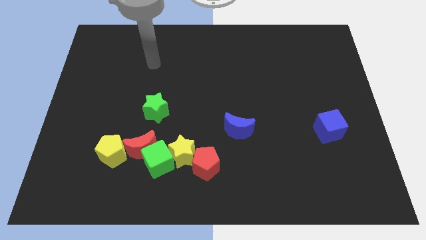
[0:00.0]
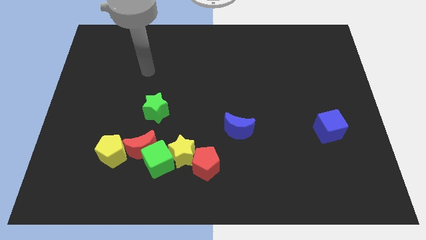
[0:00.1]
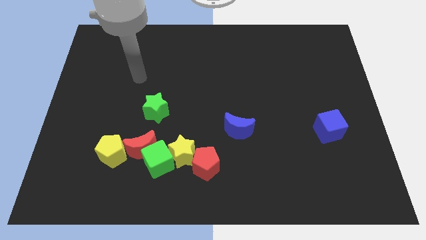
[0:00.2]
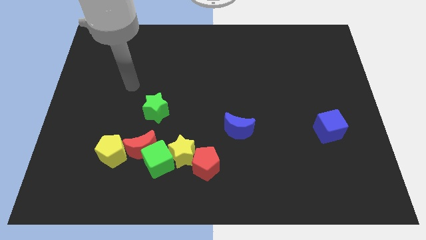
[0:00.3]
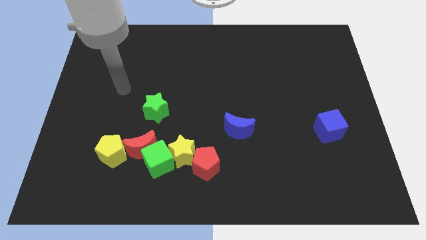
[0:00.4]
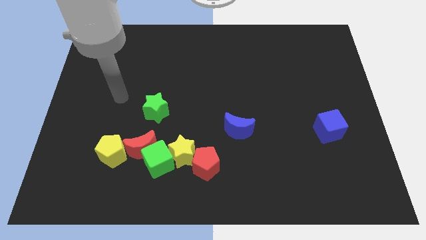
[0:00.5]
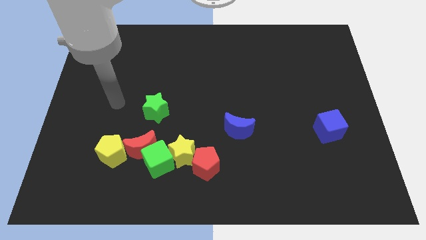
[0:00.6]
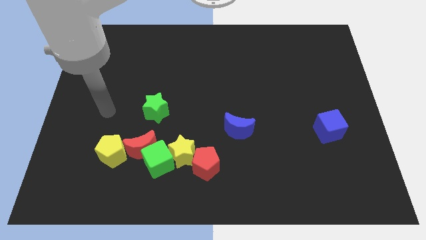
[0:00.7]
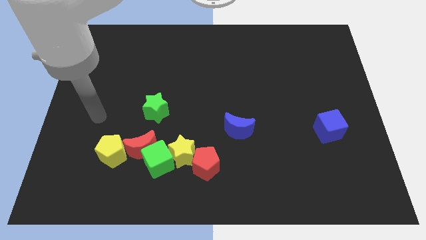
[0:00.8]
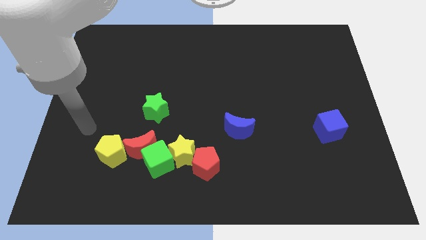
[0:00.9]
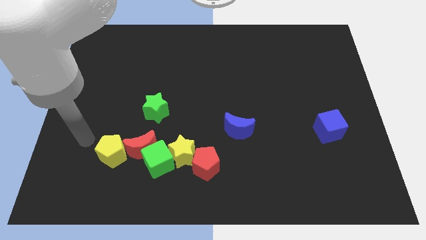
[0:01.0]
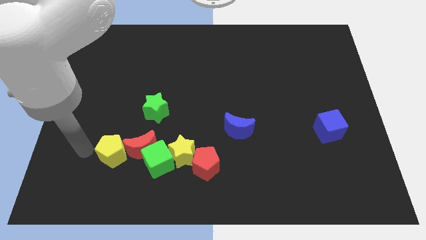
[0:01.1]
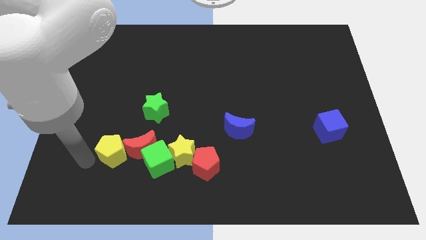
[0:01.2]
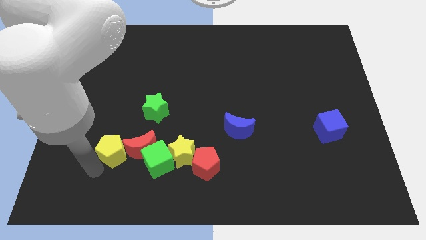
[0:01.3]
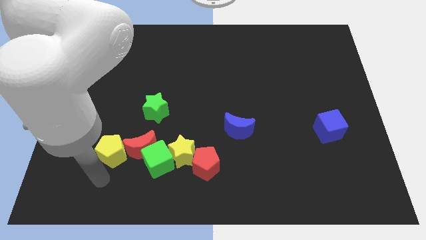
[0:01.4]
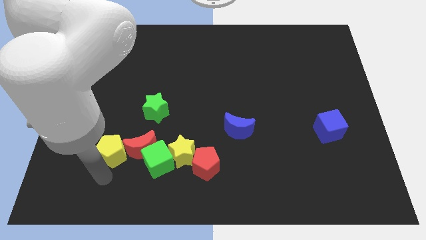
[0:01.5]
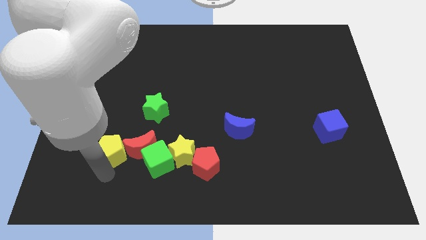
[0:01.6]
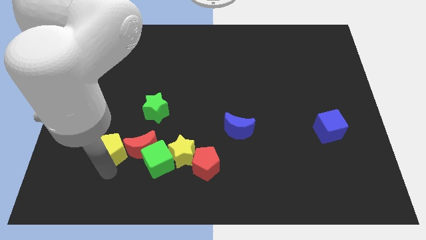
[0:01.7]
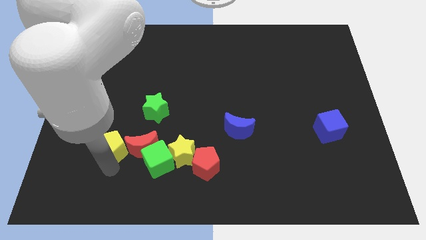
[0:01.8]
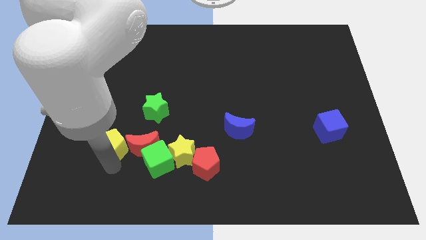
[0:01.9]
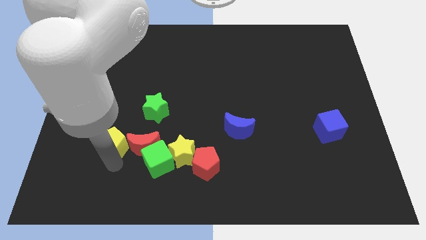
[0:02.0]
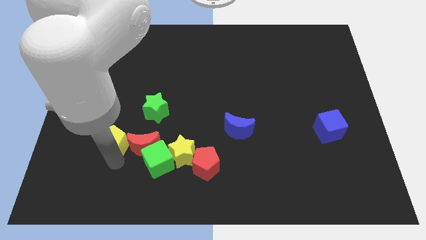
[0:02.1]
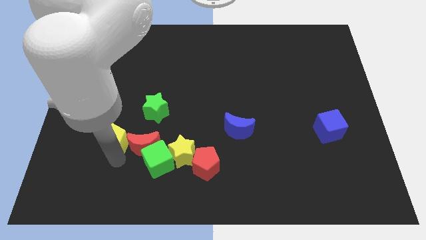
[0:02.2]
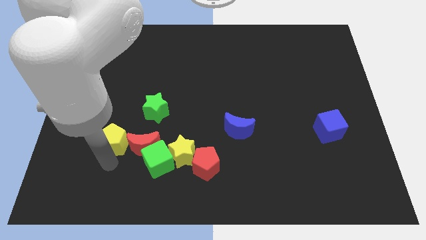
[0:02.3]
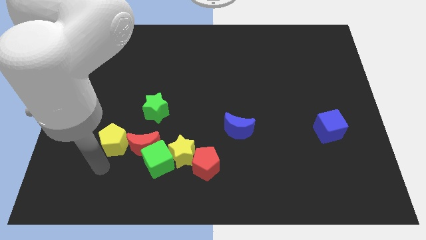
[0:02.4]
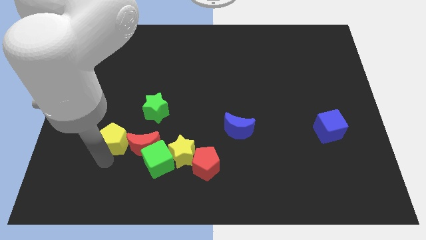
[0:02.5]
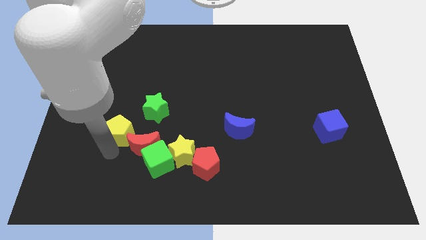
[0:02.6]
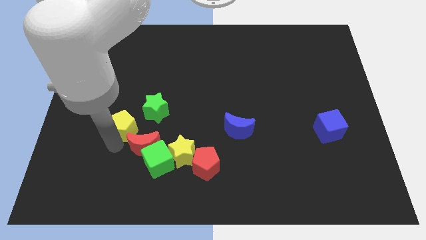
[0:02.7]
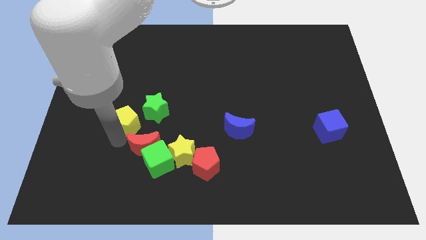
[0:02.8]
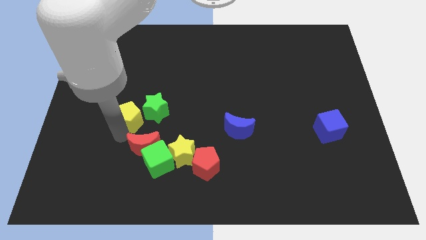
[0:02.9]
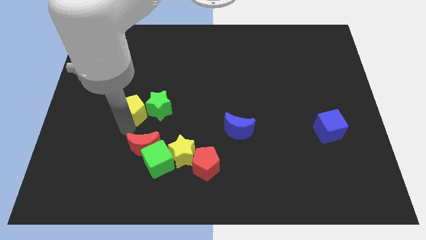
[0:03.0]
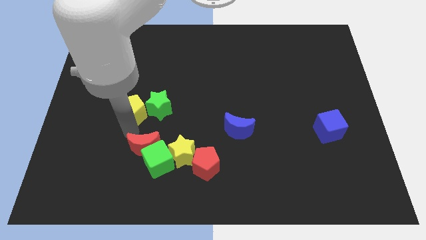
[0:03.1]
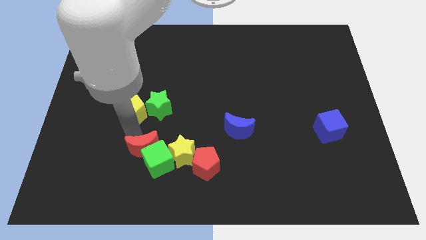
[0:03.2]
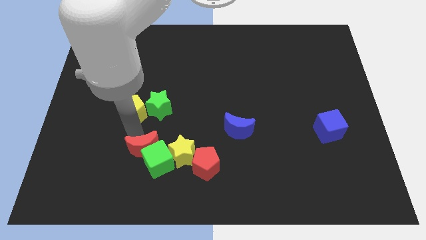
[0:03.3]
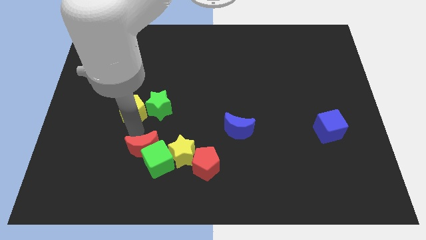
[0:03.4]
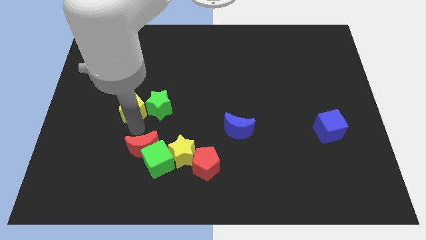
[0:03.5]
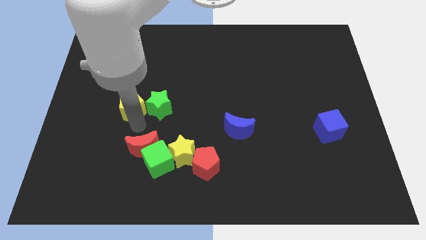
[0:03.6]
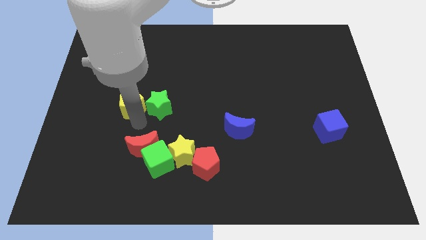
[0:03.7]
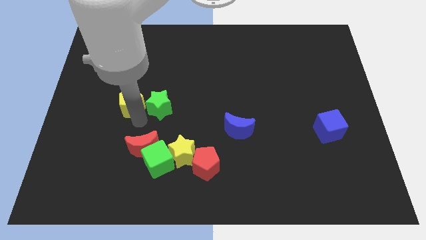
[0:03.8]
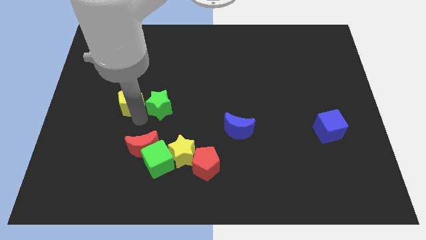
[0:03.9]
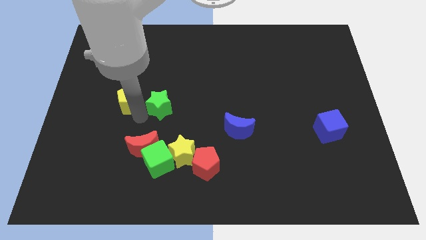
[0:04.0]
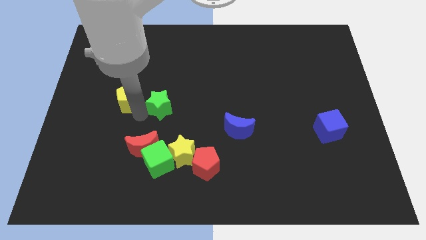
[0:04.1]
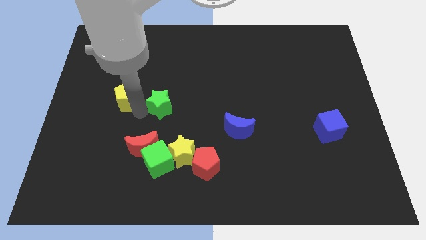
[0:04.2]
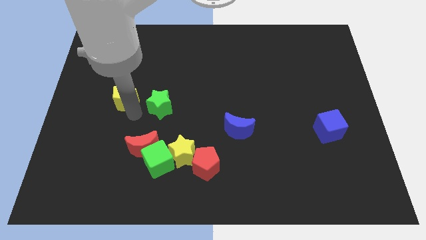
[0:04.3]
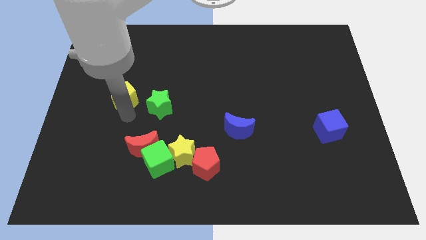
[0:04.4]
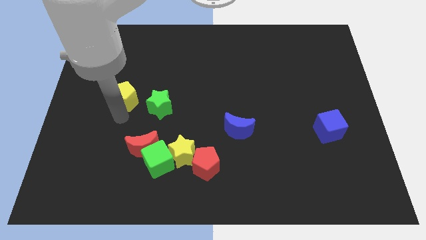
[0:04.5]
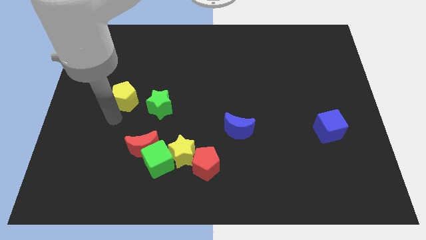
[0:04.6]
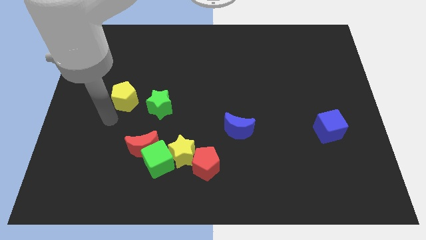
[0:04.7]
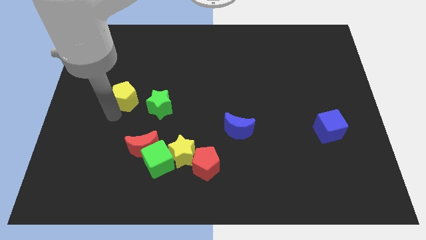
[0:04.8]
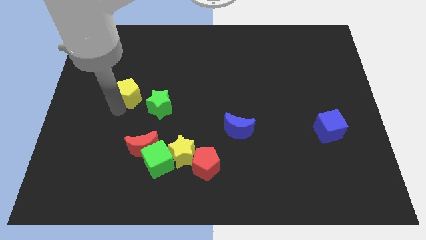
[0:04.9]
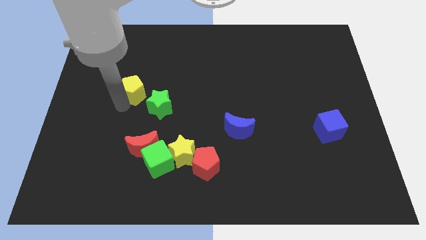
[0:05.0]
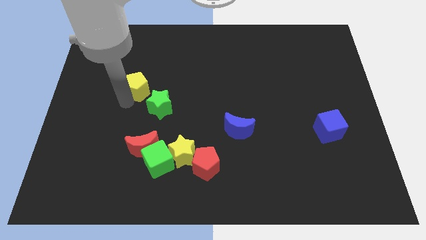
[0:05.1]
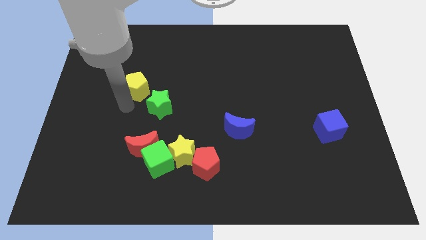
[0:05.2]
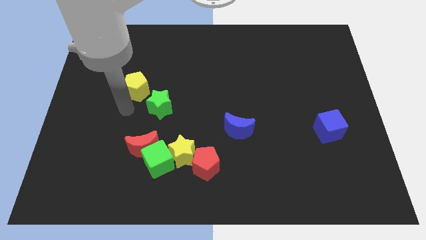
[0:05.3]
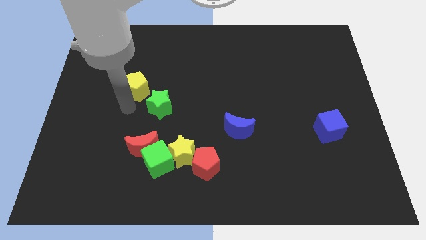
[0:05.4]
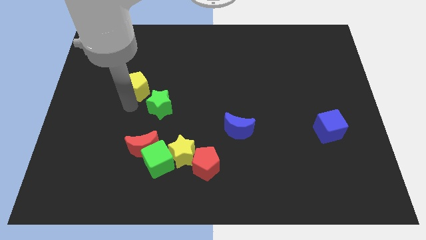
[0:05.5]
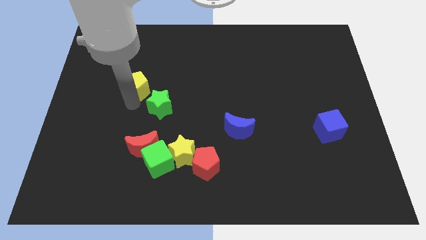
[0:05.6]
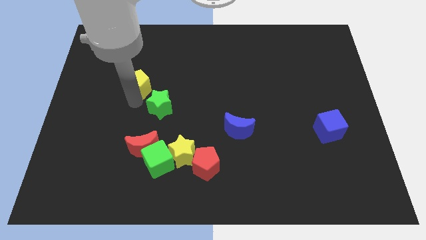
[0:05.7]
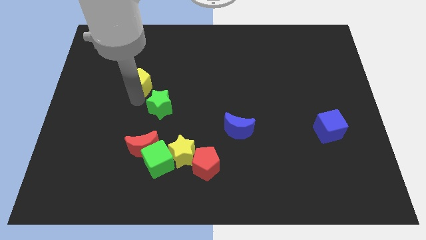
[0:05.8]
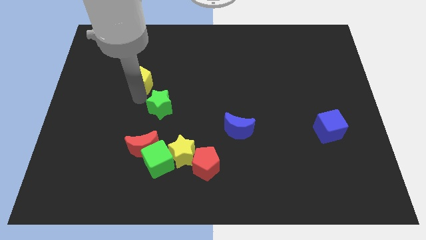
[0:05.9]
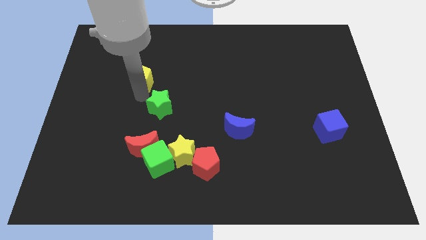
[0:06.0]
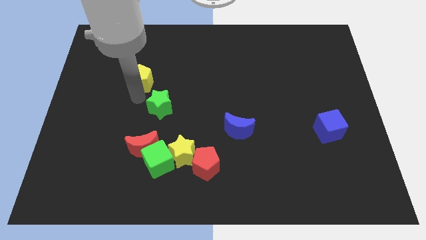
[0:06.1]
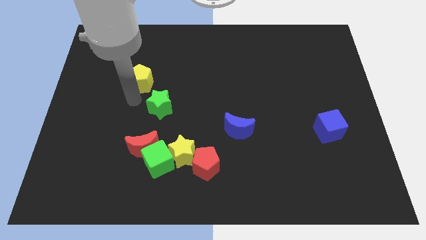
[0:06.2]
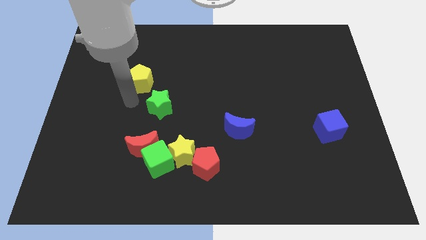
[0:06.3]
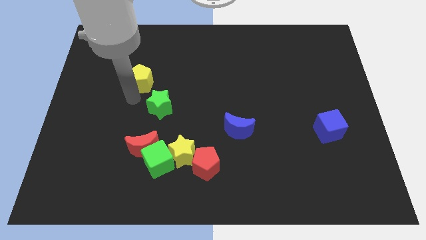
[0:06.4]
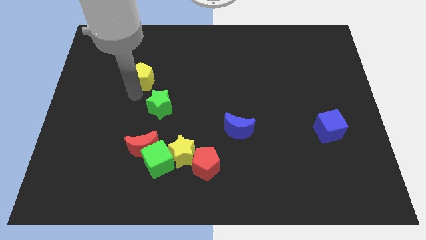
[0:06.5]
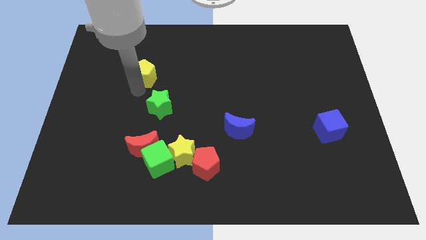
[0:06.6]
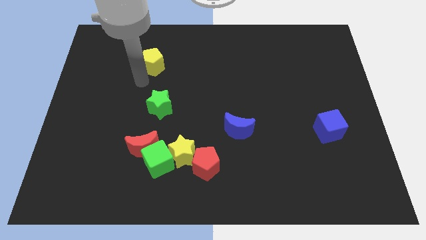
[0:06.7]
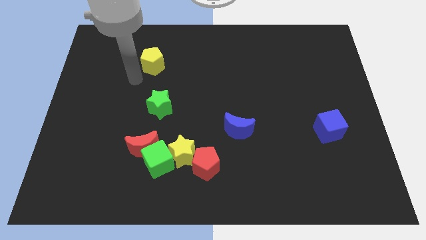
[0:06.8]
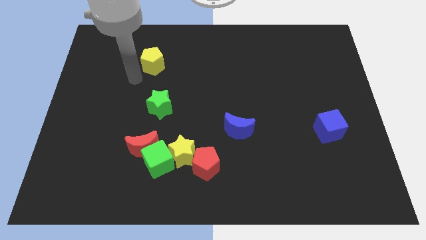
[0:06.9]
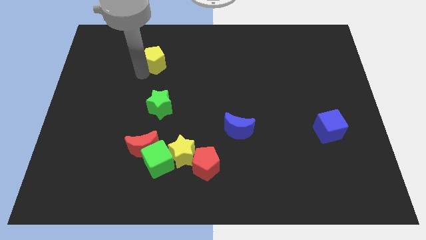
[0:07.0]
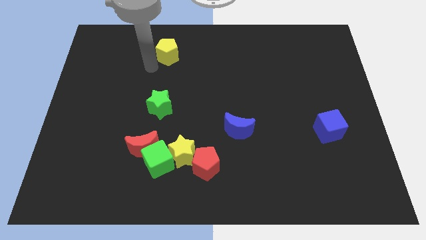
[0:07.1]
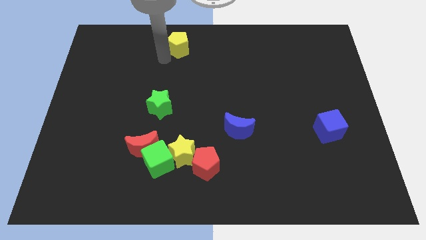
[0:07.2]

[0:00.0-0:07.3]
slide the yellow pentagon to the towards your base

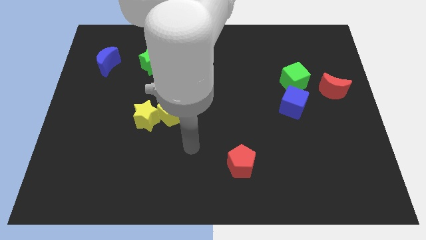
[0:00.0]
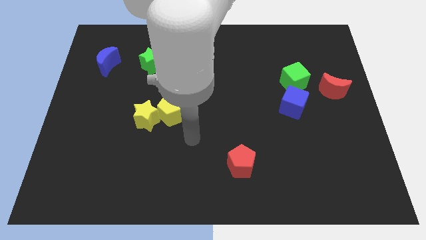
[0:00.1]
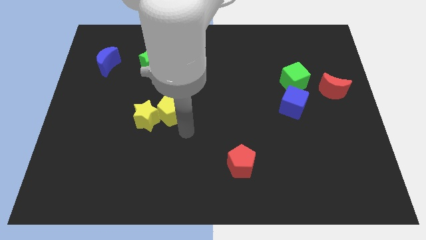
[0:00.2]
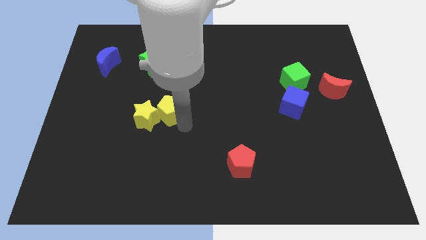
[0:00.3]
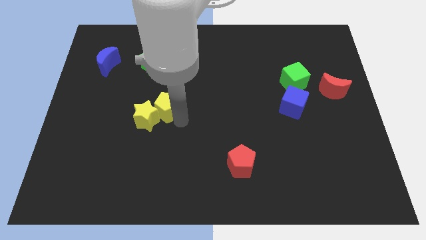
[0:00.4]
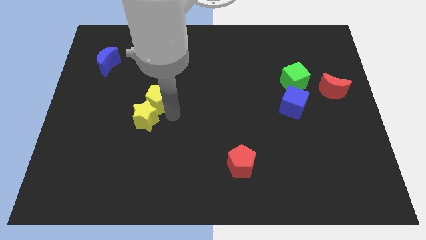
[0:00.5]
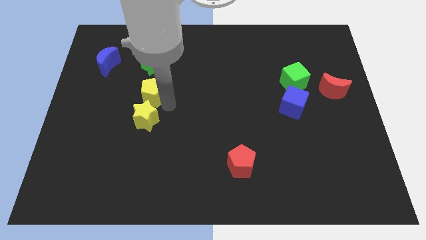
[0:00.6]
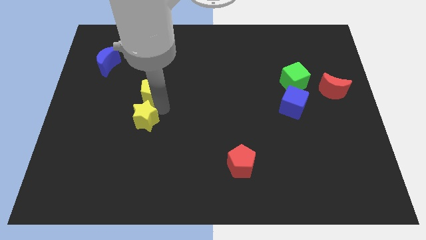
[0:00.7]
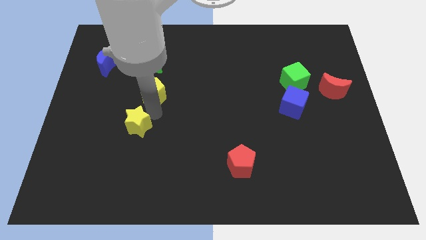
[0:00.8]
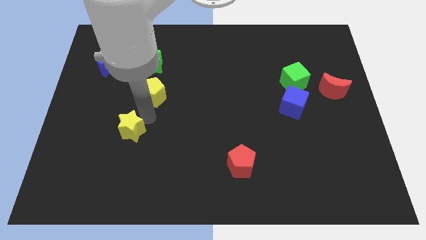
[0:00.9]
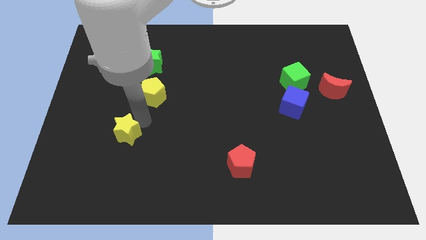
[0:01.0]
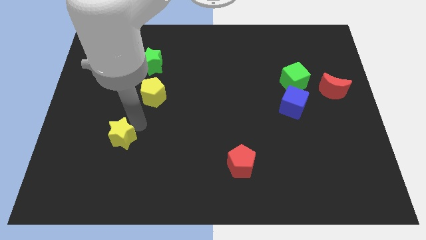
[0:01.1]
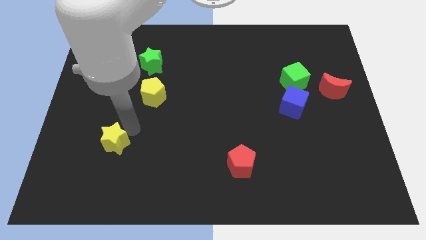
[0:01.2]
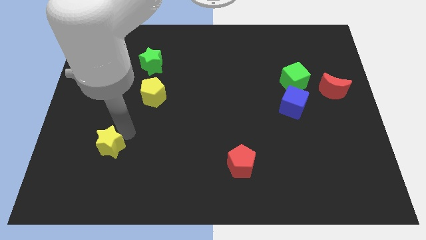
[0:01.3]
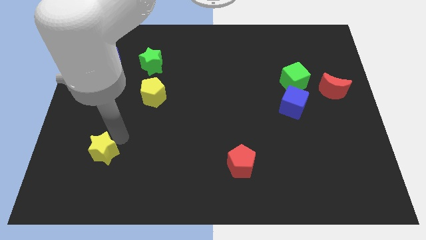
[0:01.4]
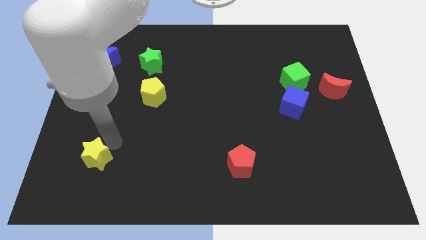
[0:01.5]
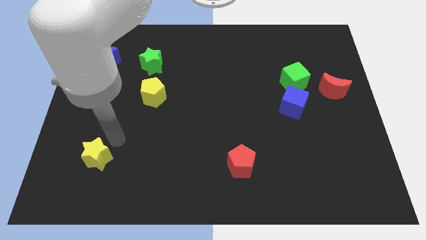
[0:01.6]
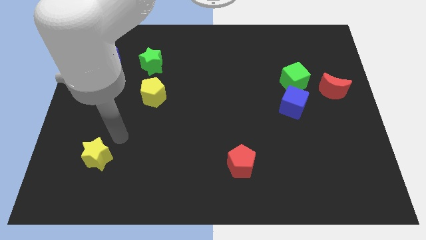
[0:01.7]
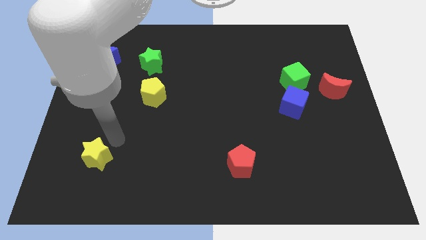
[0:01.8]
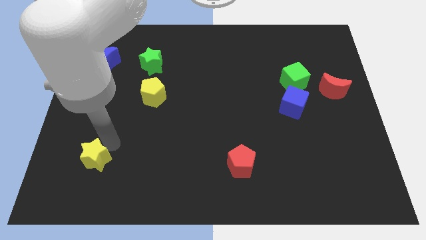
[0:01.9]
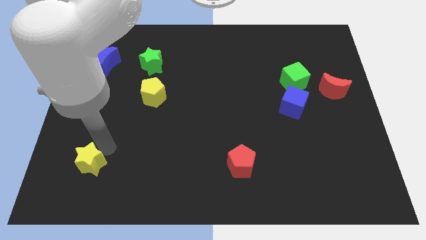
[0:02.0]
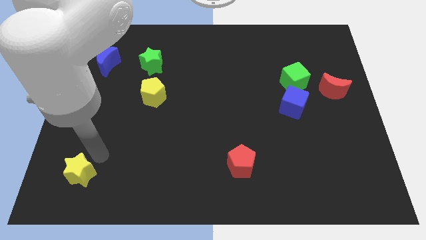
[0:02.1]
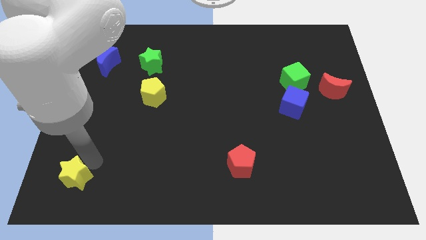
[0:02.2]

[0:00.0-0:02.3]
move the yellow star to the bottom left of the board
